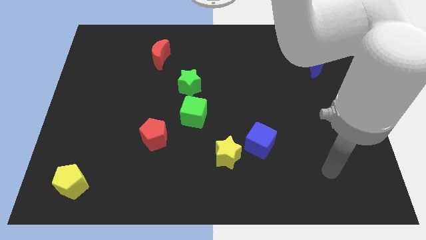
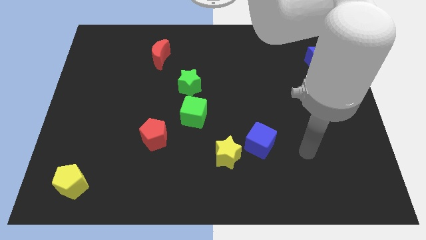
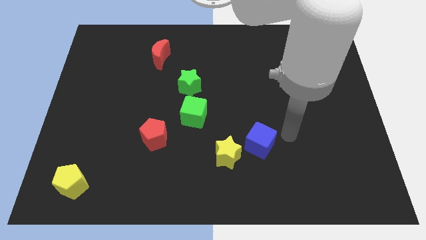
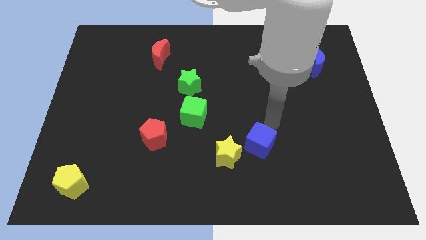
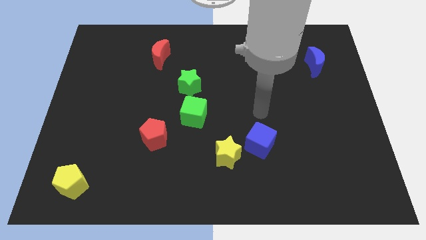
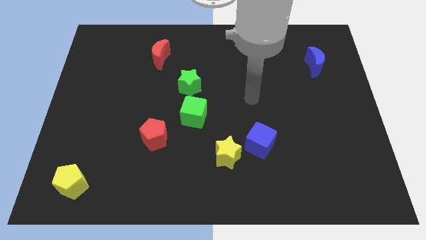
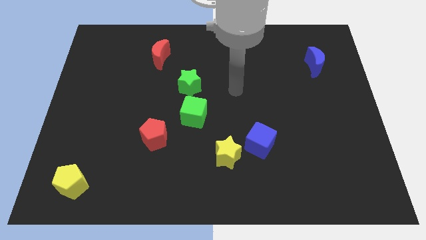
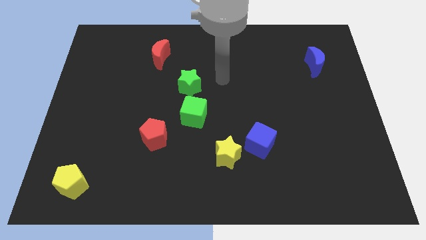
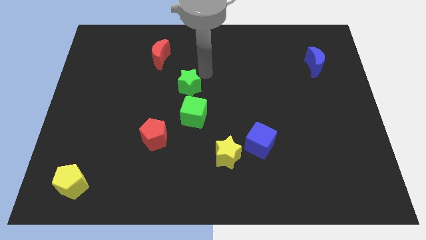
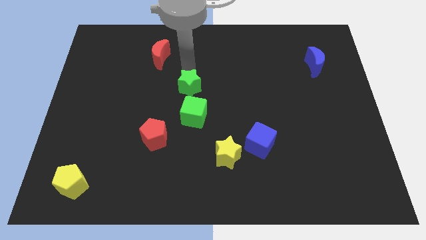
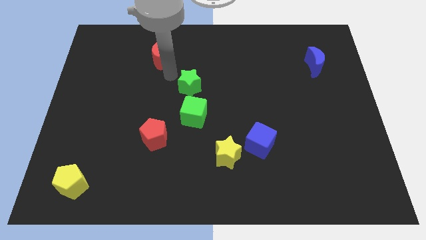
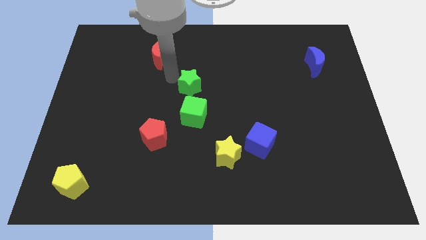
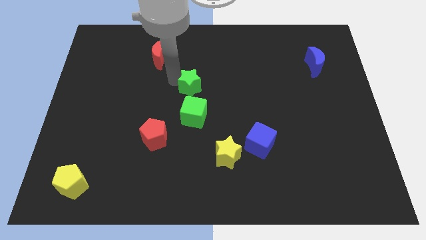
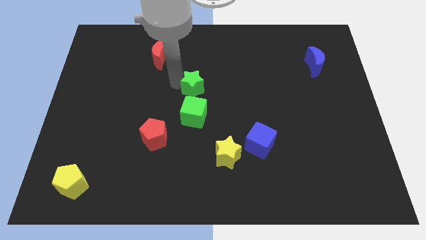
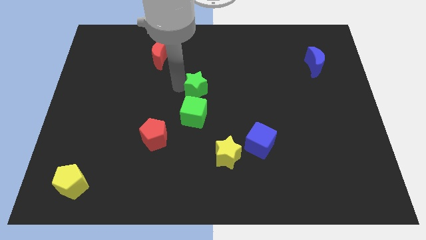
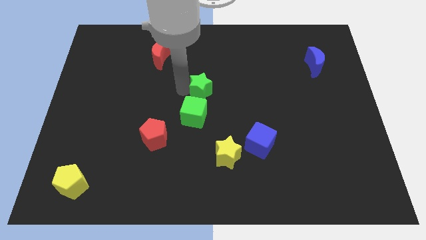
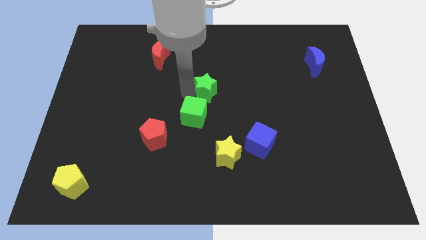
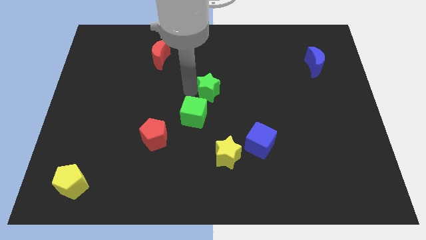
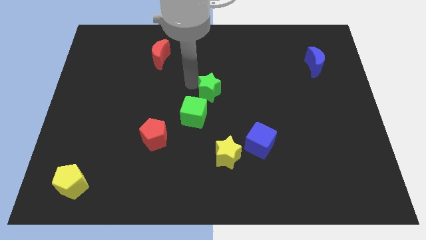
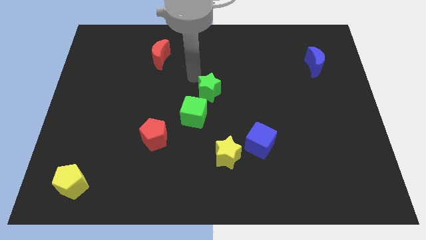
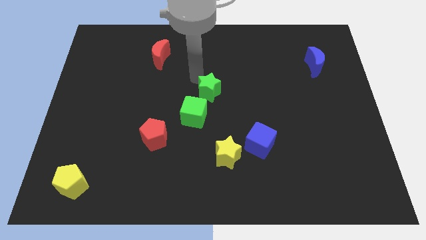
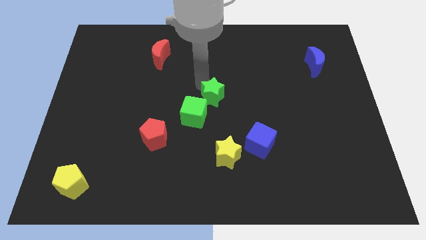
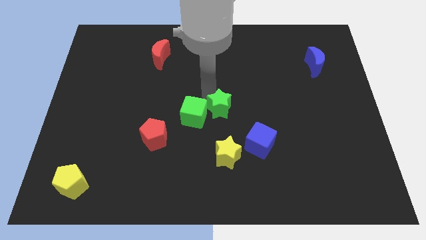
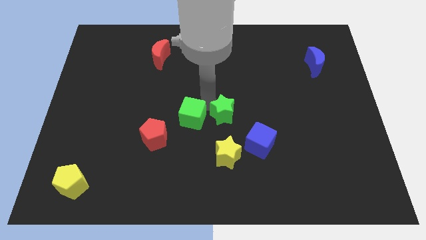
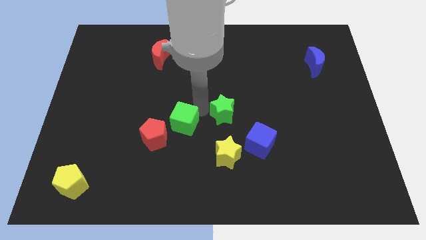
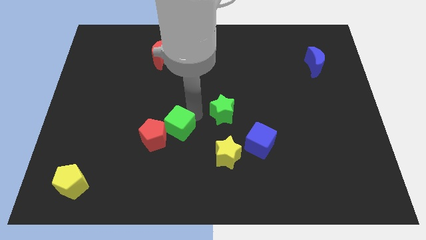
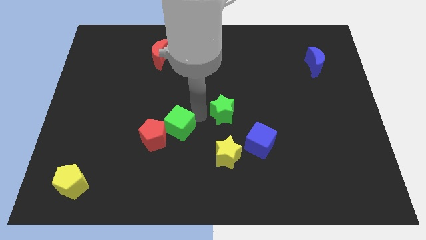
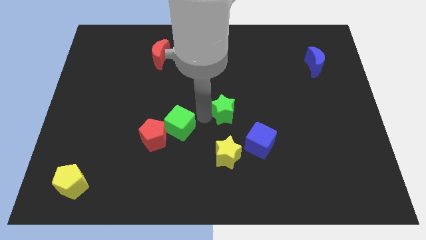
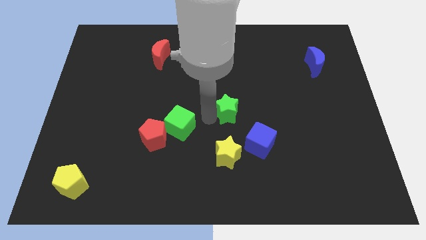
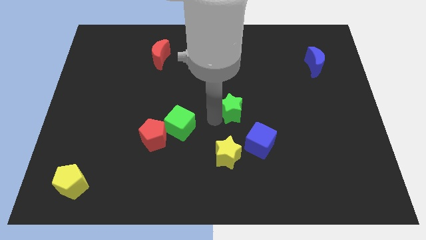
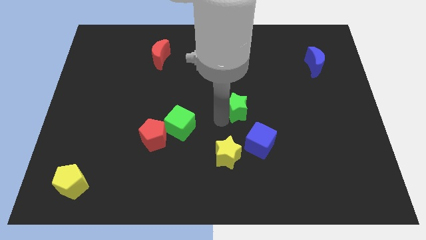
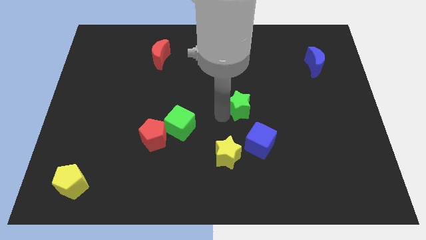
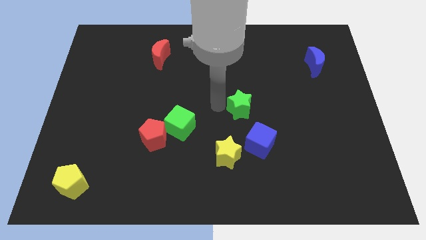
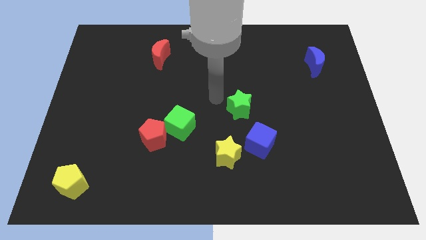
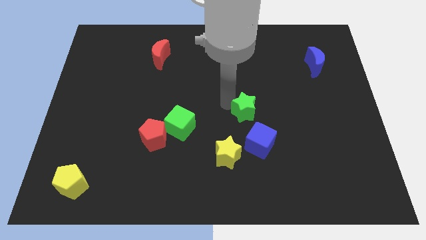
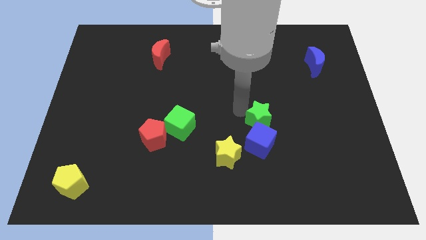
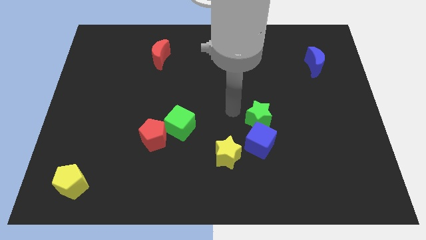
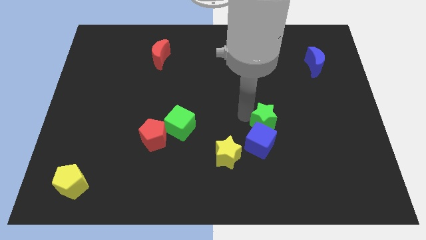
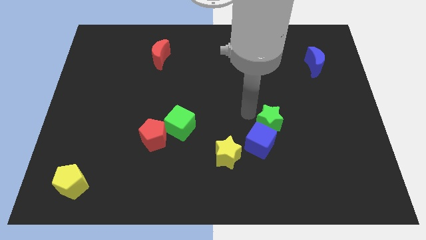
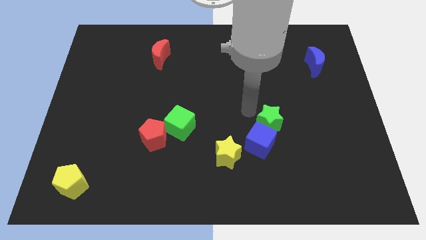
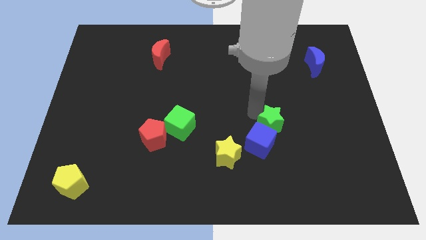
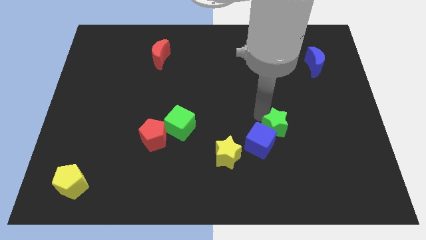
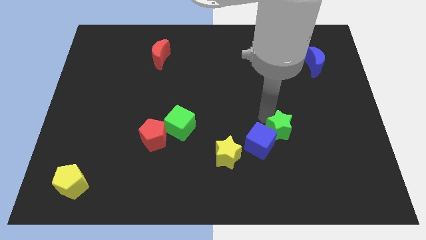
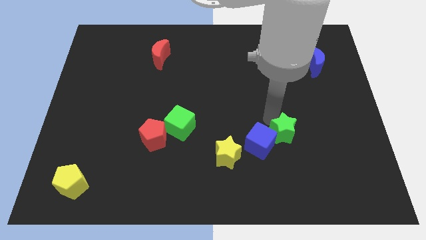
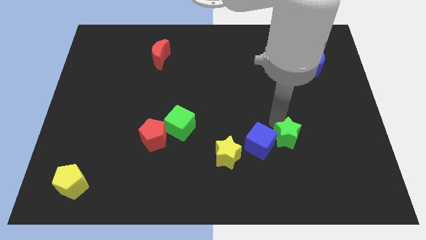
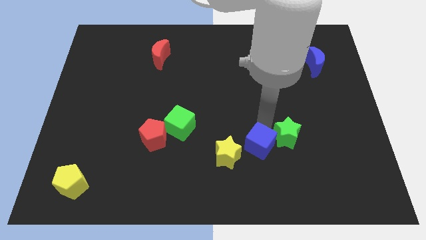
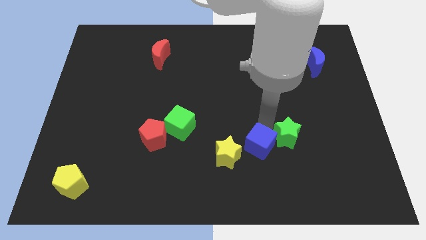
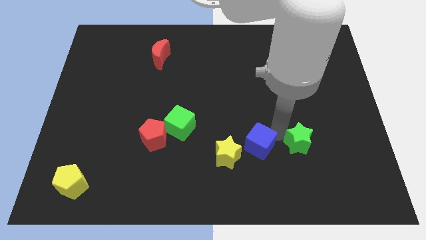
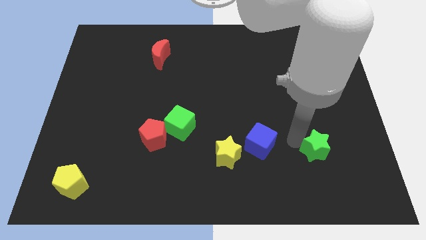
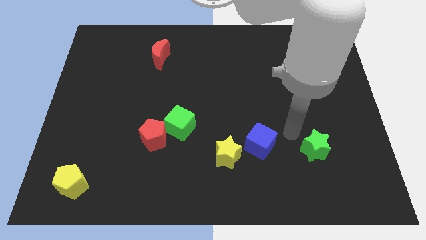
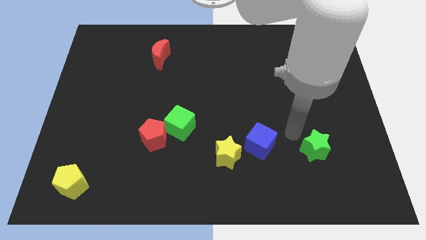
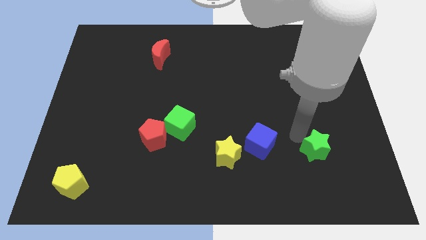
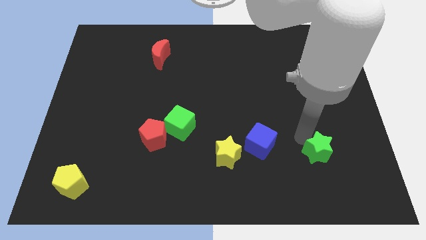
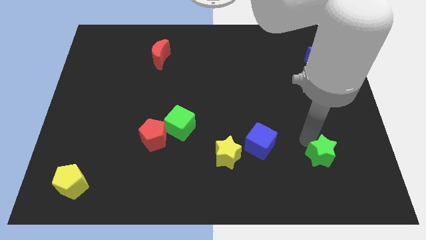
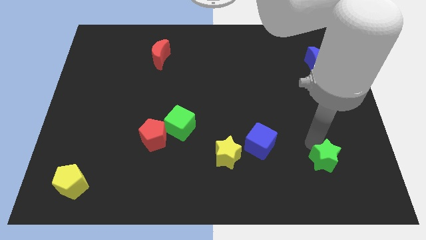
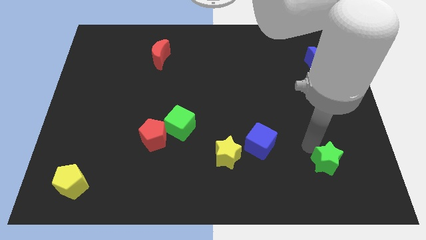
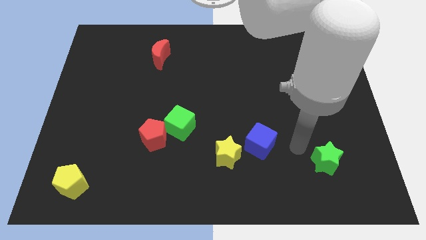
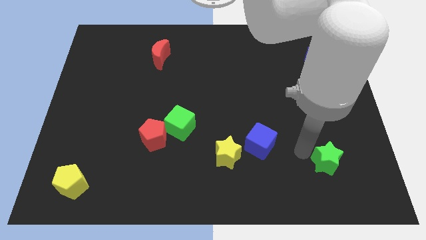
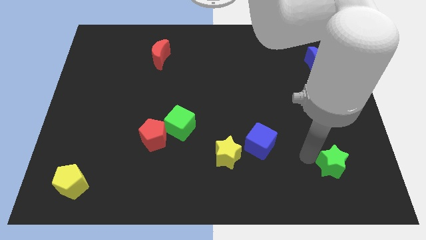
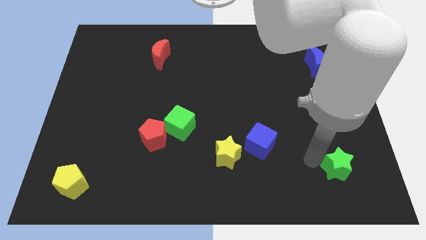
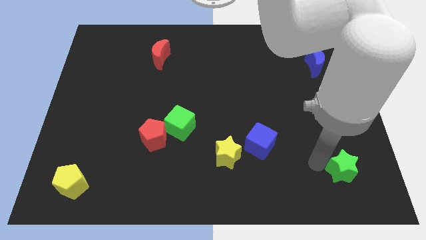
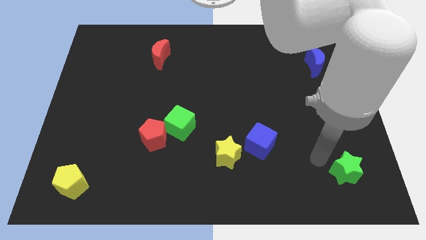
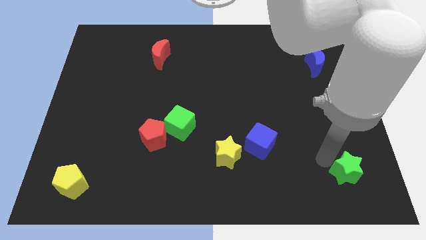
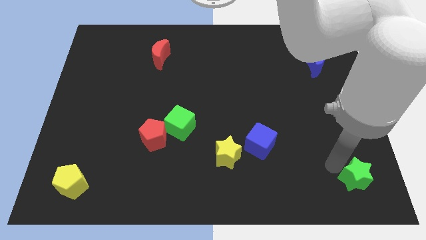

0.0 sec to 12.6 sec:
put the green star to the bottom right of the board
